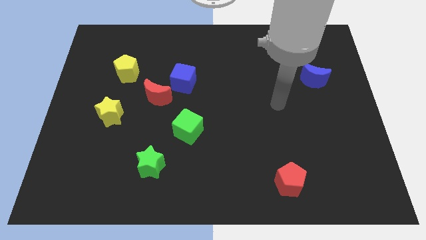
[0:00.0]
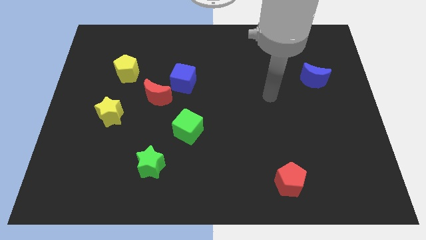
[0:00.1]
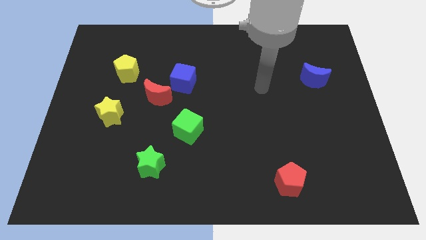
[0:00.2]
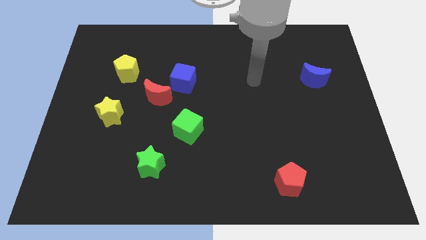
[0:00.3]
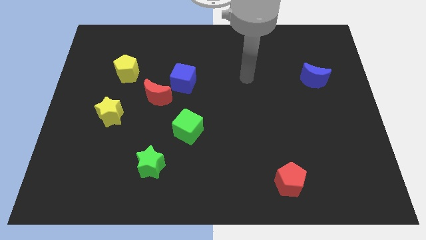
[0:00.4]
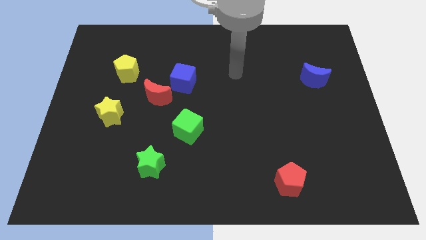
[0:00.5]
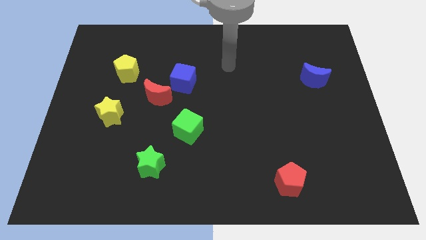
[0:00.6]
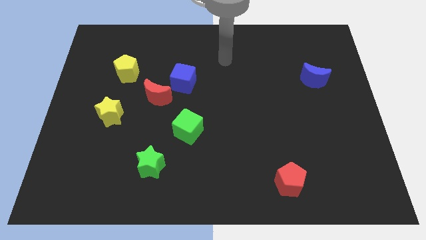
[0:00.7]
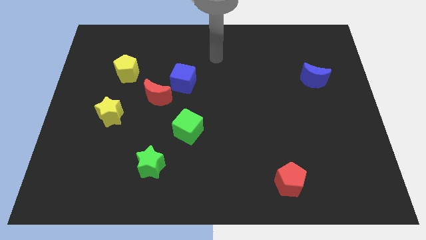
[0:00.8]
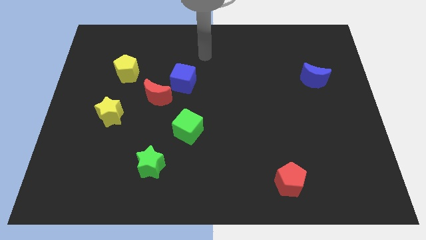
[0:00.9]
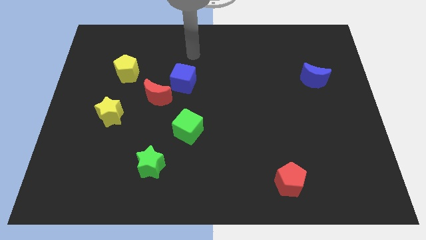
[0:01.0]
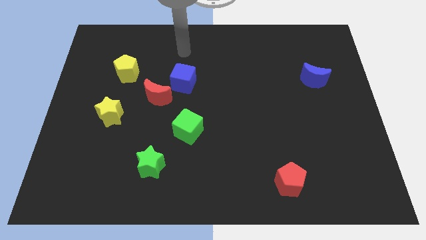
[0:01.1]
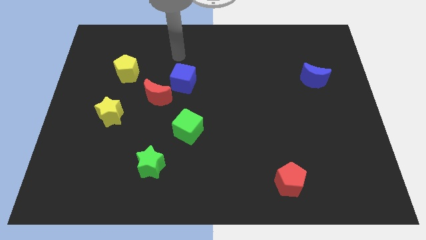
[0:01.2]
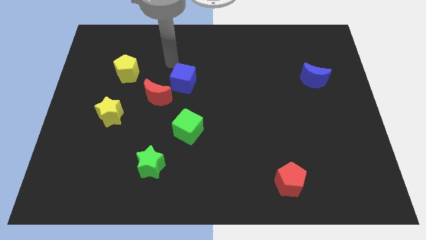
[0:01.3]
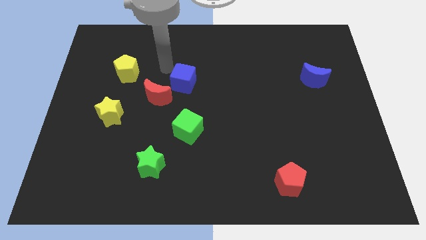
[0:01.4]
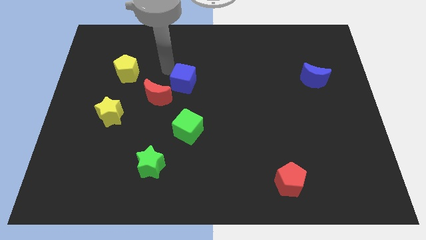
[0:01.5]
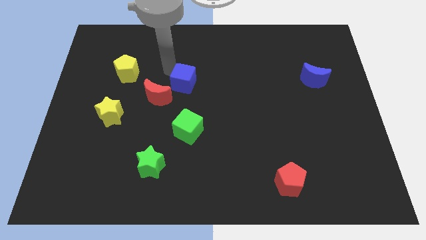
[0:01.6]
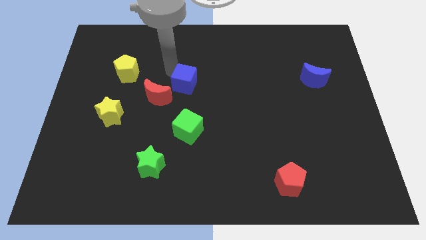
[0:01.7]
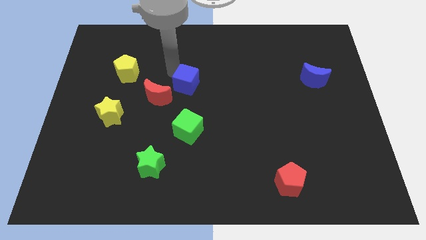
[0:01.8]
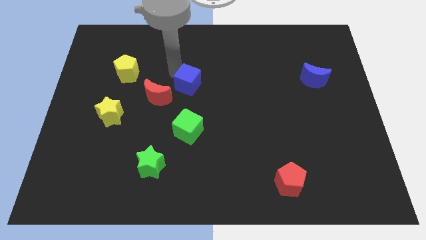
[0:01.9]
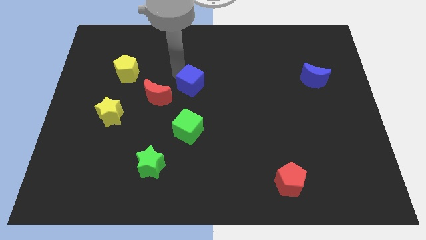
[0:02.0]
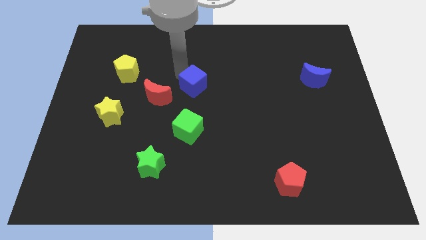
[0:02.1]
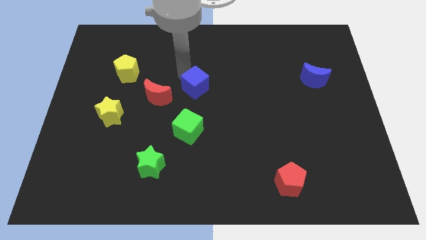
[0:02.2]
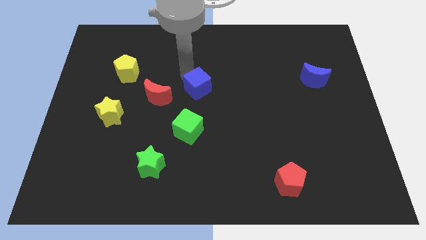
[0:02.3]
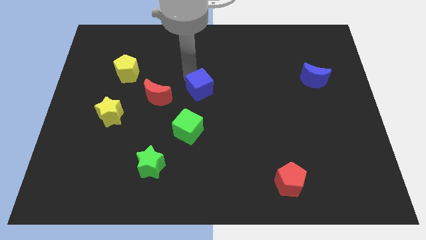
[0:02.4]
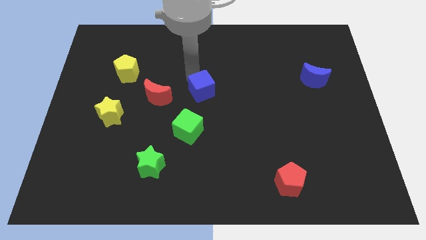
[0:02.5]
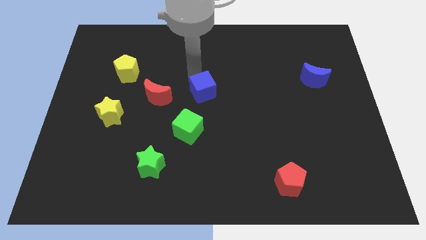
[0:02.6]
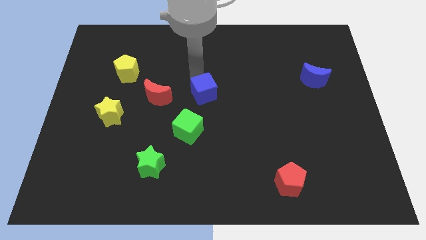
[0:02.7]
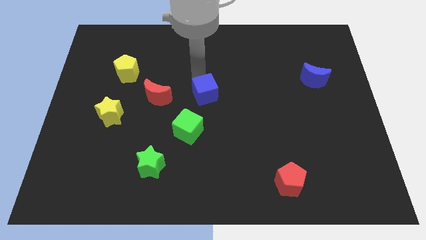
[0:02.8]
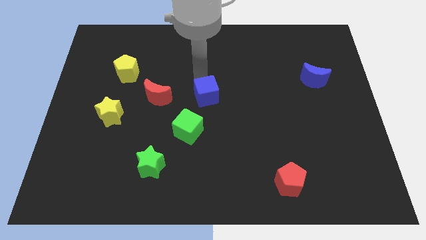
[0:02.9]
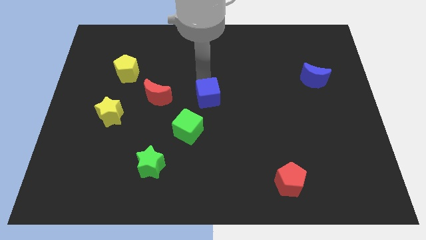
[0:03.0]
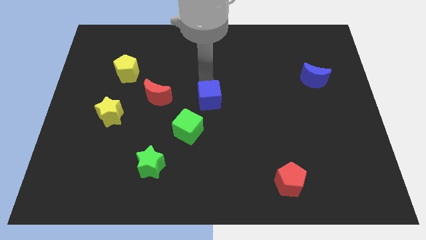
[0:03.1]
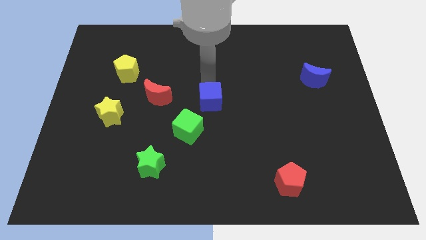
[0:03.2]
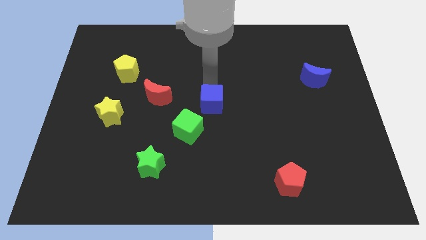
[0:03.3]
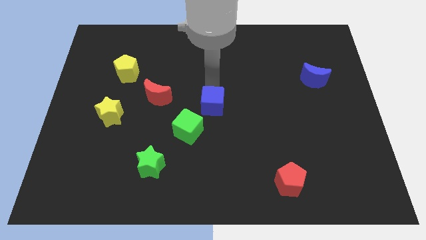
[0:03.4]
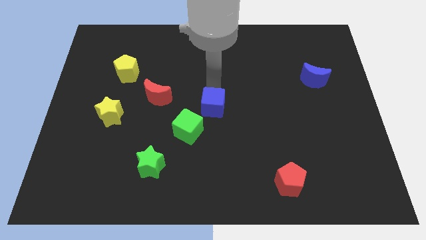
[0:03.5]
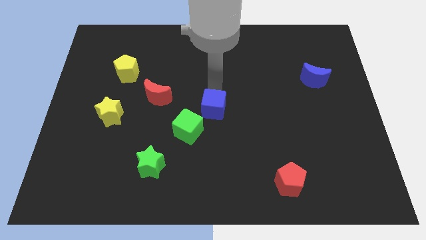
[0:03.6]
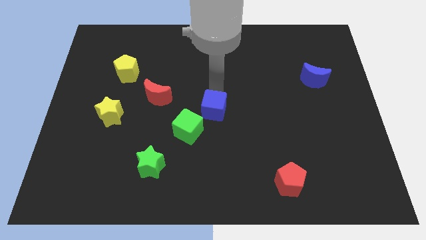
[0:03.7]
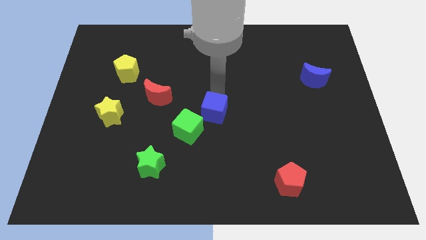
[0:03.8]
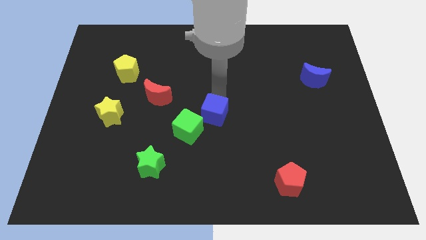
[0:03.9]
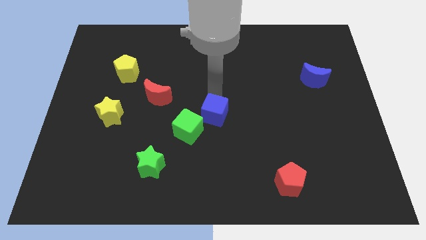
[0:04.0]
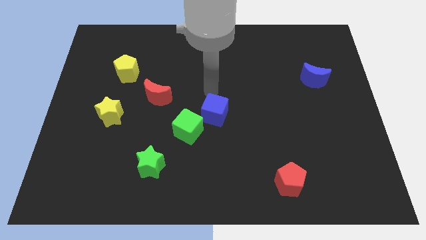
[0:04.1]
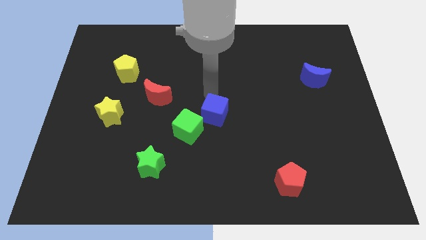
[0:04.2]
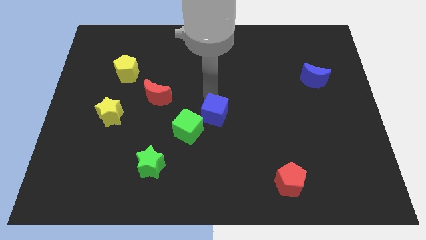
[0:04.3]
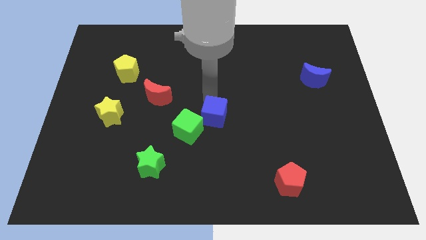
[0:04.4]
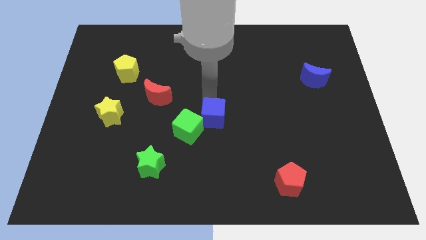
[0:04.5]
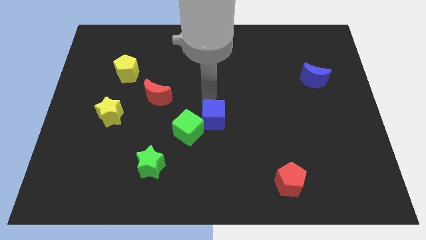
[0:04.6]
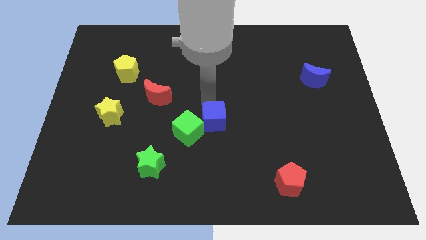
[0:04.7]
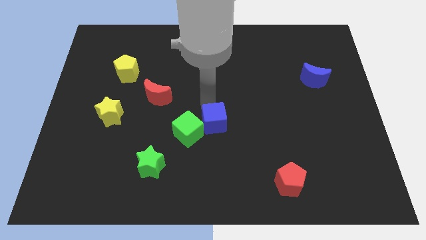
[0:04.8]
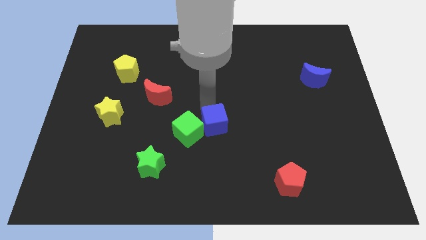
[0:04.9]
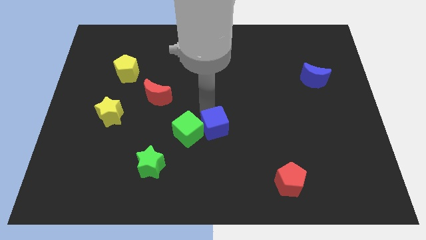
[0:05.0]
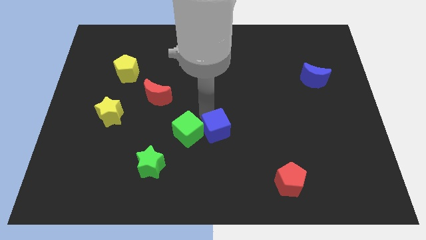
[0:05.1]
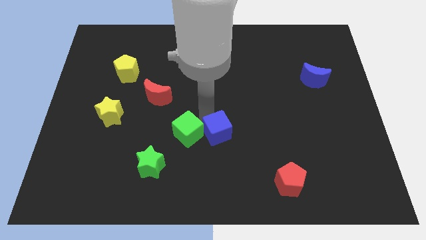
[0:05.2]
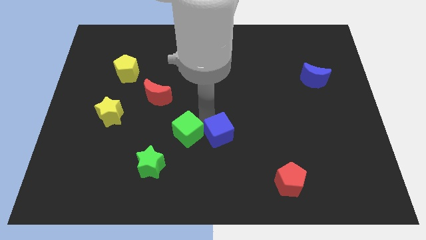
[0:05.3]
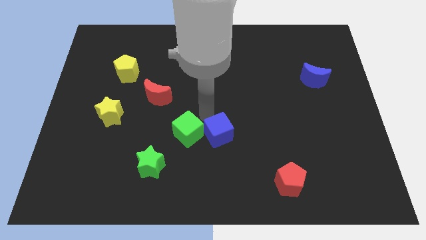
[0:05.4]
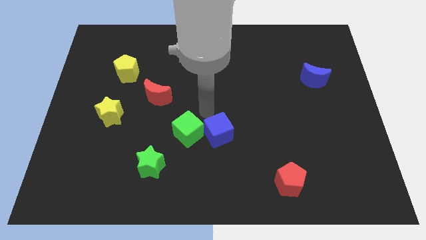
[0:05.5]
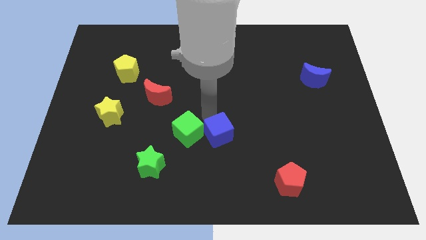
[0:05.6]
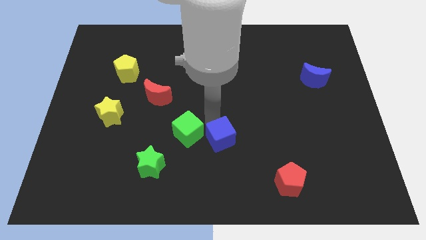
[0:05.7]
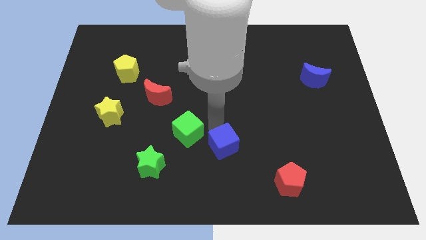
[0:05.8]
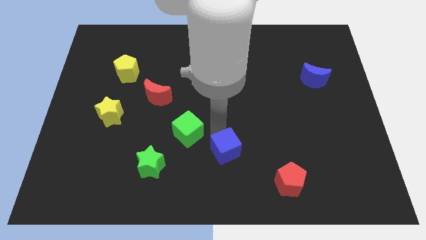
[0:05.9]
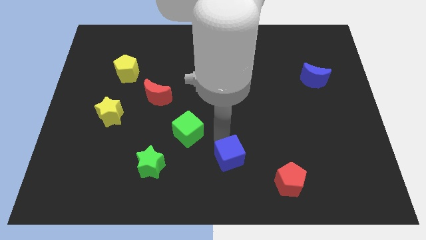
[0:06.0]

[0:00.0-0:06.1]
move the blue cube to the bottom

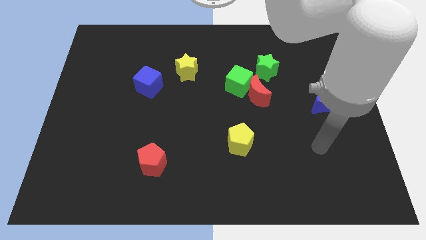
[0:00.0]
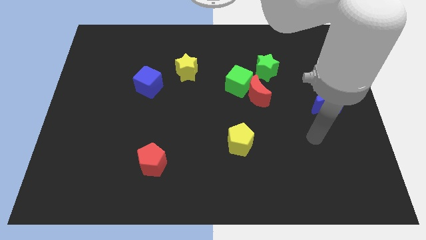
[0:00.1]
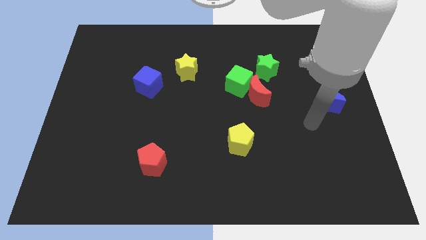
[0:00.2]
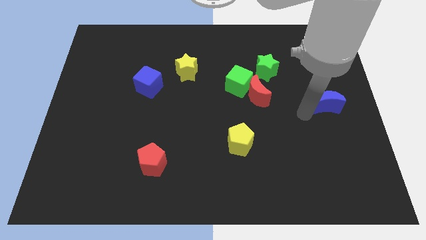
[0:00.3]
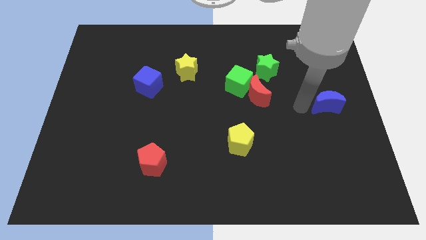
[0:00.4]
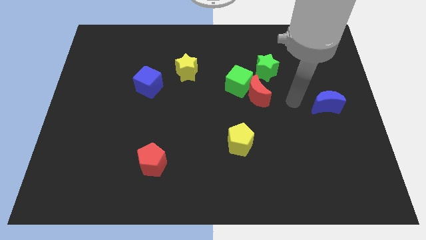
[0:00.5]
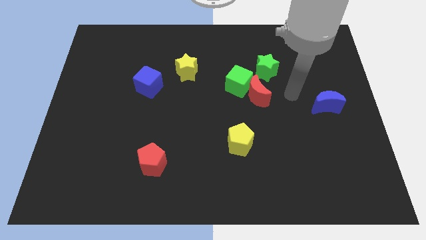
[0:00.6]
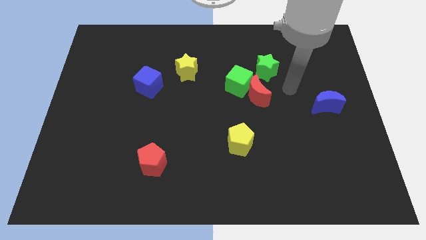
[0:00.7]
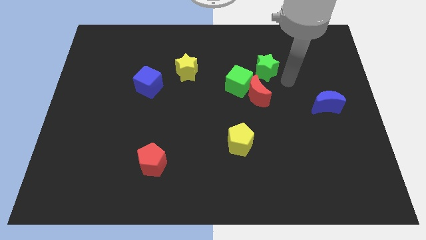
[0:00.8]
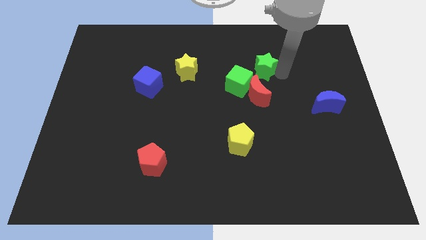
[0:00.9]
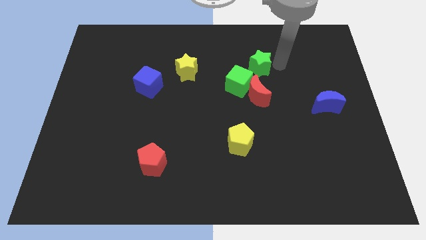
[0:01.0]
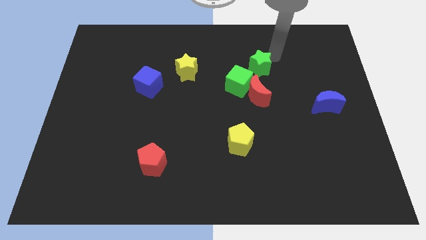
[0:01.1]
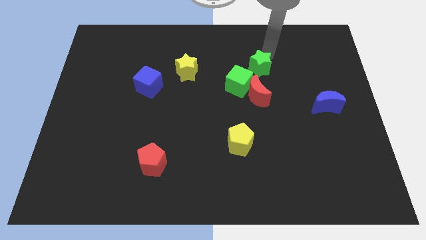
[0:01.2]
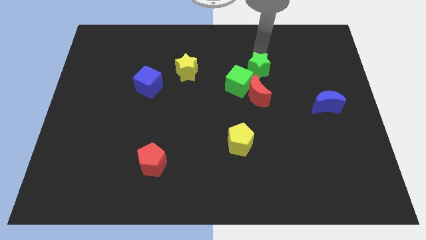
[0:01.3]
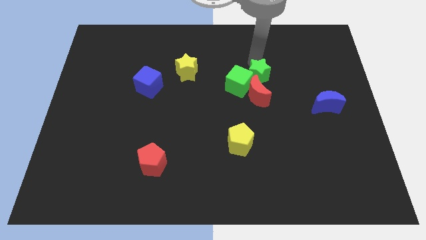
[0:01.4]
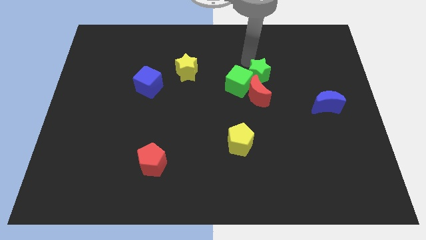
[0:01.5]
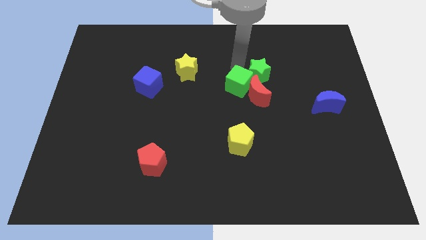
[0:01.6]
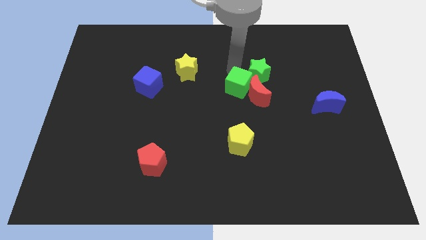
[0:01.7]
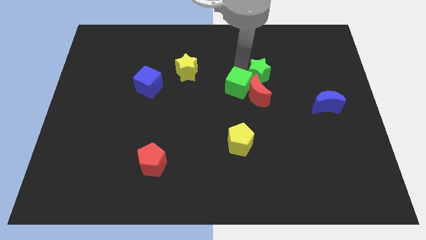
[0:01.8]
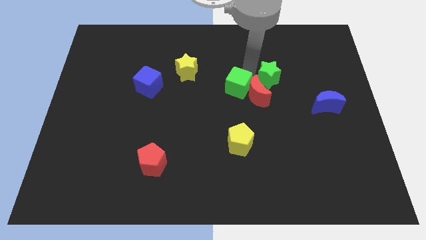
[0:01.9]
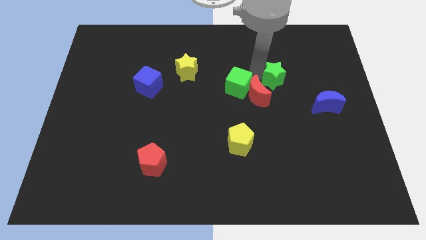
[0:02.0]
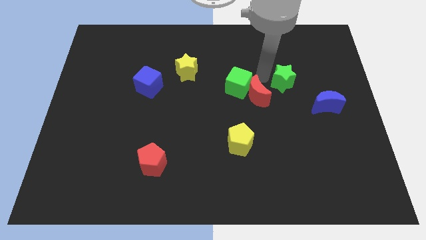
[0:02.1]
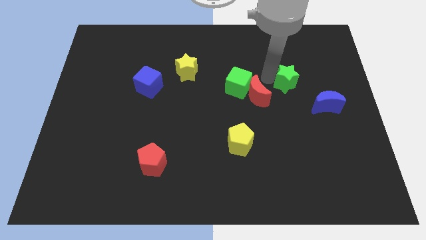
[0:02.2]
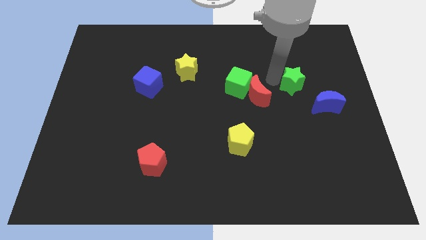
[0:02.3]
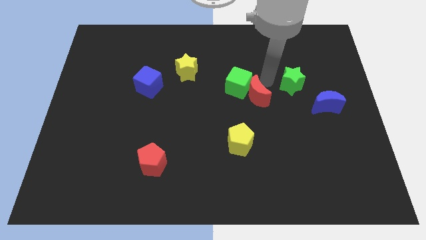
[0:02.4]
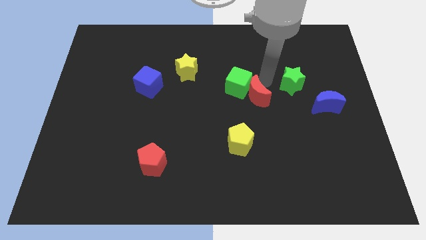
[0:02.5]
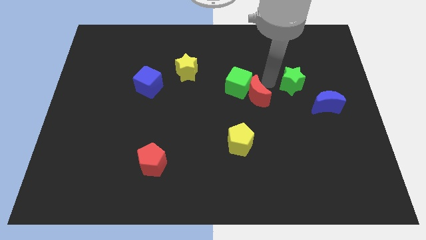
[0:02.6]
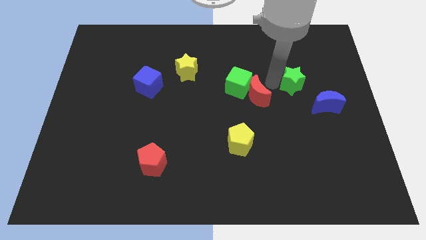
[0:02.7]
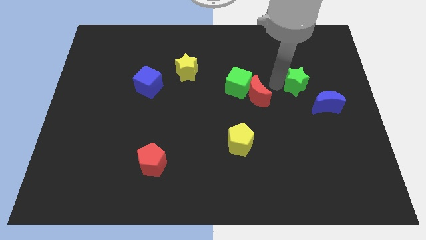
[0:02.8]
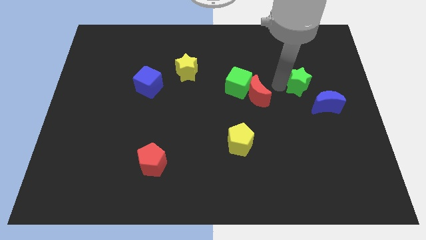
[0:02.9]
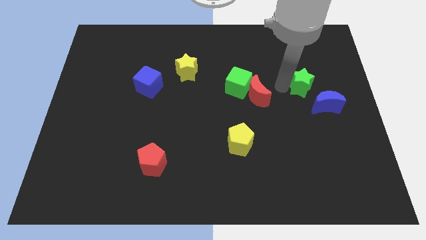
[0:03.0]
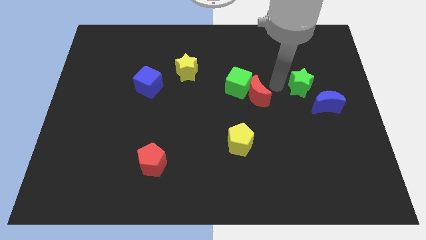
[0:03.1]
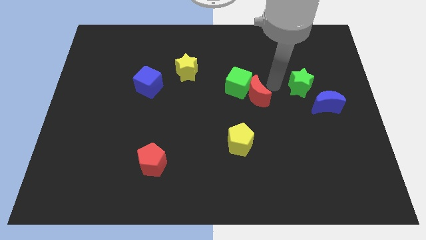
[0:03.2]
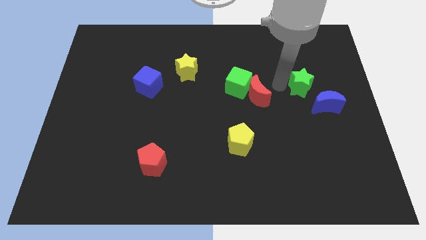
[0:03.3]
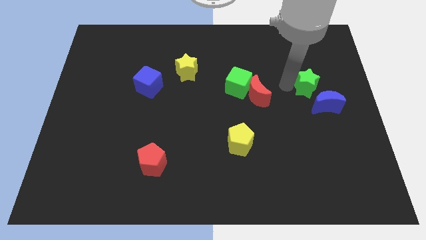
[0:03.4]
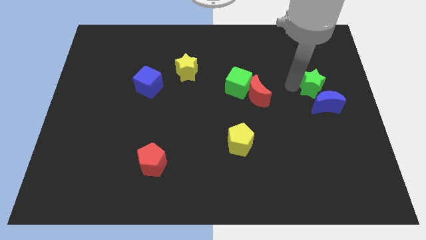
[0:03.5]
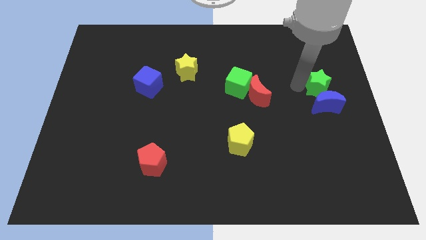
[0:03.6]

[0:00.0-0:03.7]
push the green star to the right side
